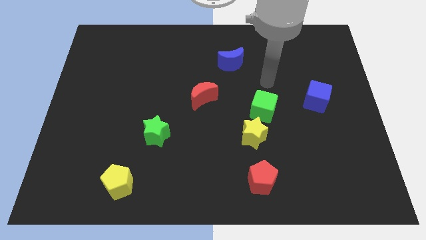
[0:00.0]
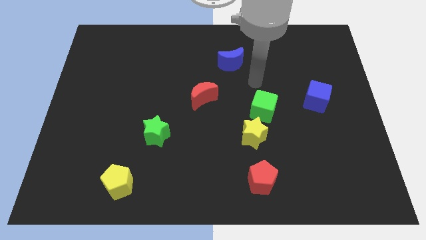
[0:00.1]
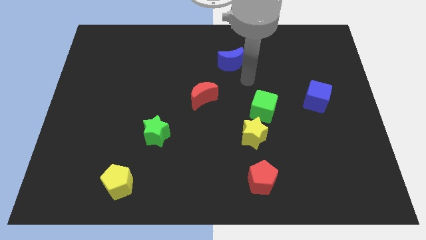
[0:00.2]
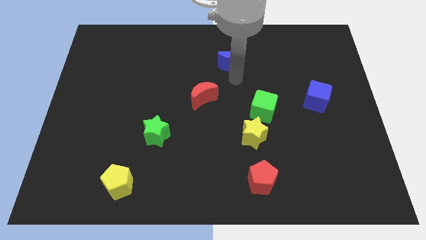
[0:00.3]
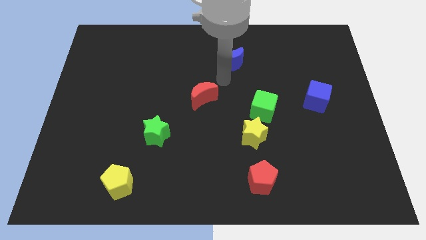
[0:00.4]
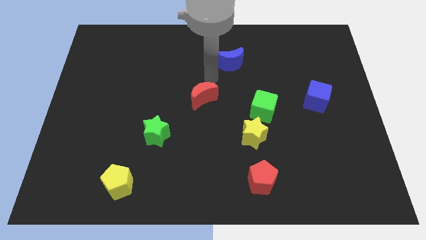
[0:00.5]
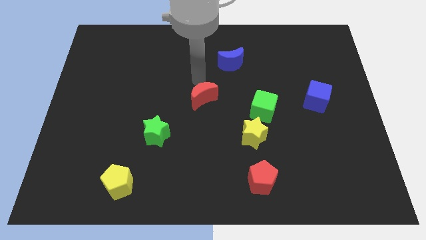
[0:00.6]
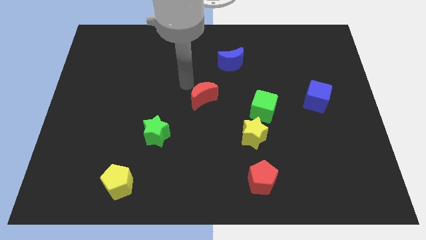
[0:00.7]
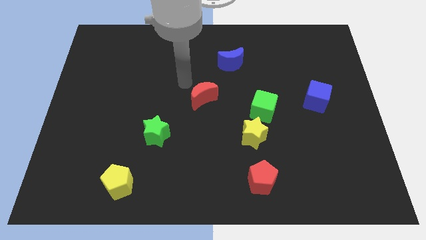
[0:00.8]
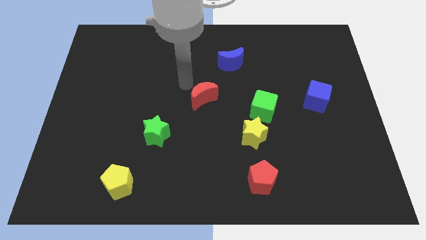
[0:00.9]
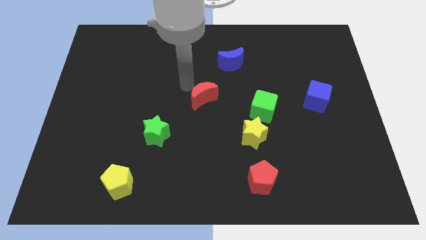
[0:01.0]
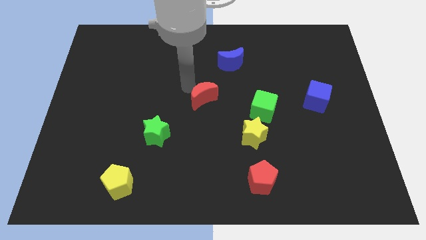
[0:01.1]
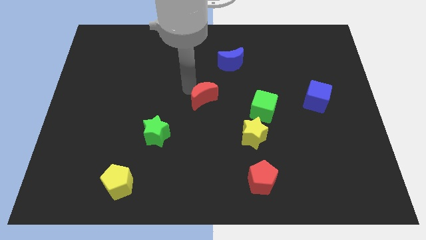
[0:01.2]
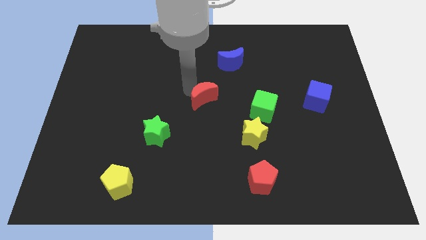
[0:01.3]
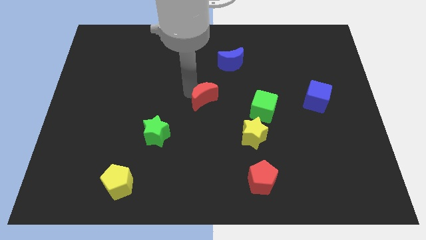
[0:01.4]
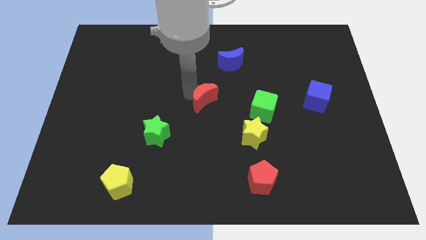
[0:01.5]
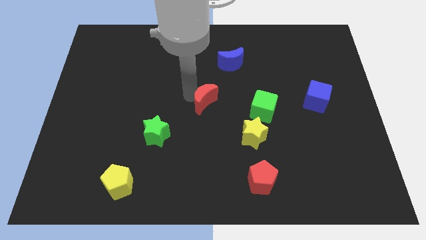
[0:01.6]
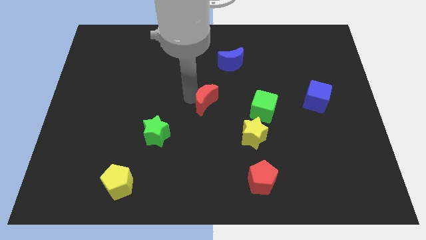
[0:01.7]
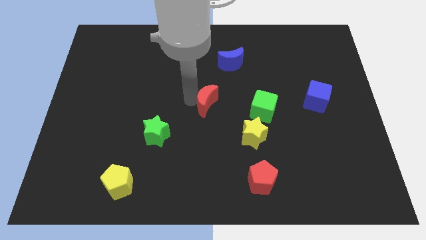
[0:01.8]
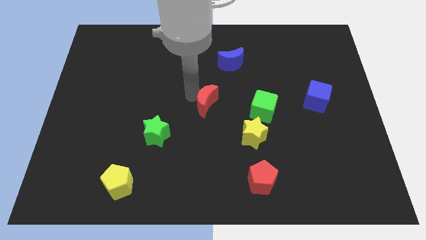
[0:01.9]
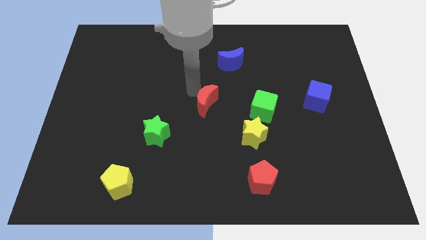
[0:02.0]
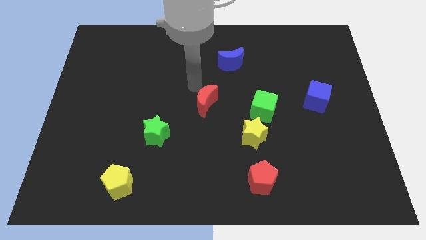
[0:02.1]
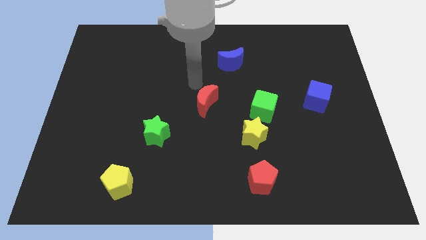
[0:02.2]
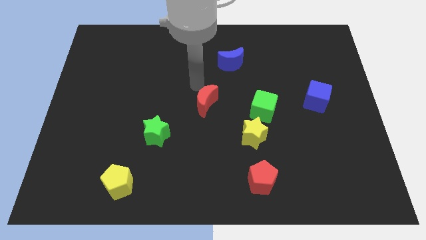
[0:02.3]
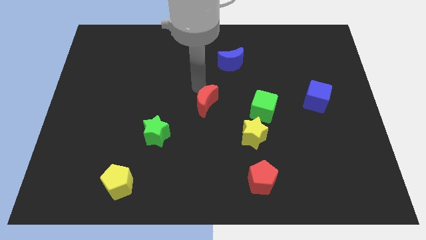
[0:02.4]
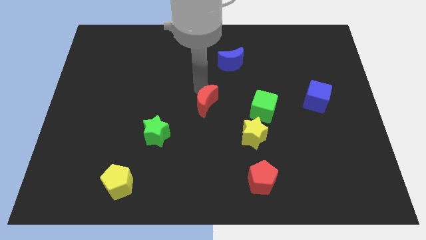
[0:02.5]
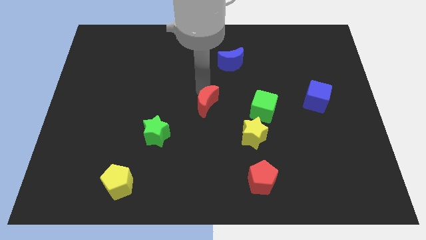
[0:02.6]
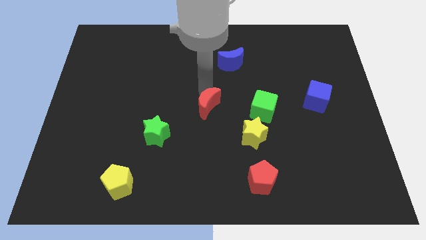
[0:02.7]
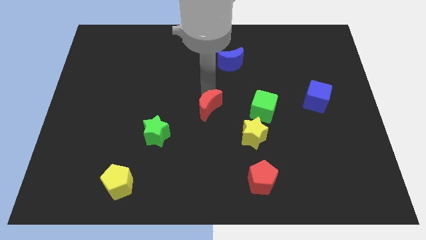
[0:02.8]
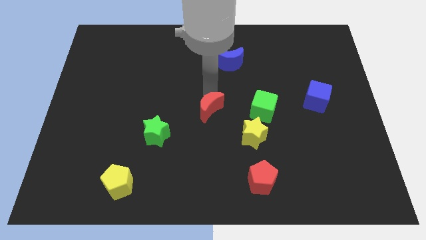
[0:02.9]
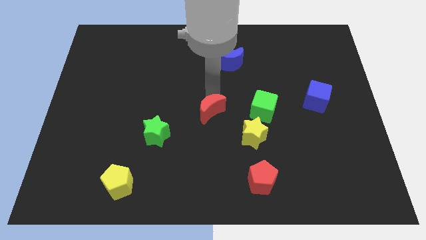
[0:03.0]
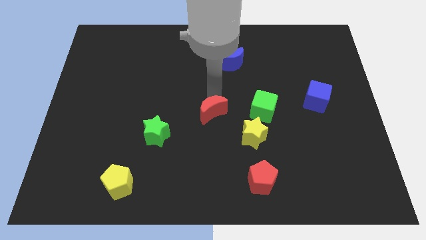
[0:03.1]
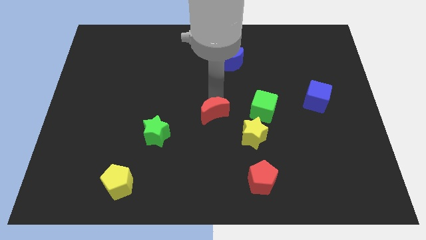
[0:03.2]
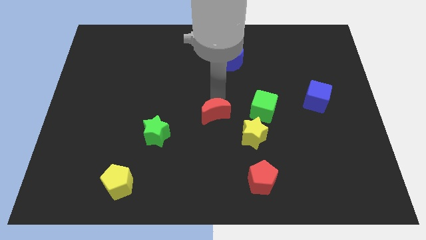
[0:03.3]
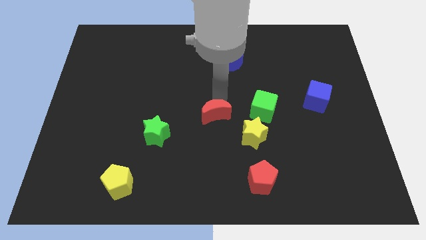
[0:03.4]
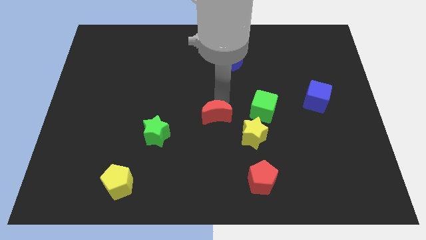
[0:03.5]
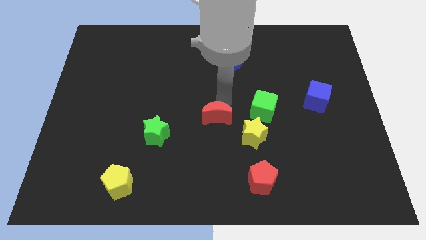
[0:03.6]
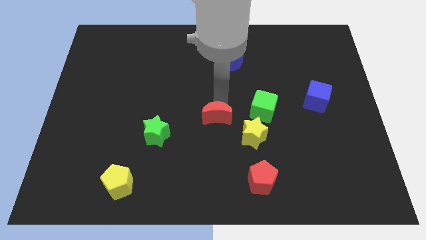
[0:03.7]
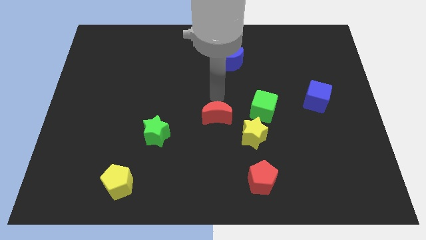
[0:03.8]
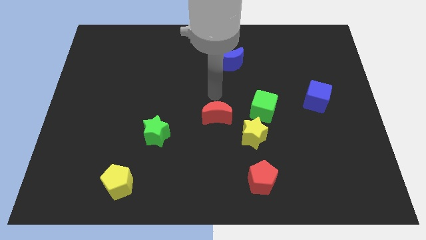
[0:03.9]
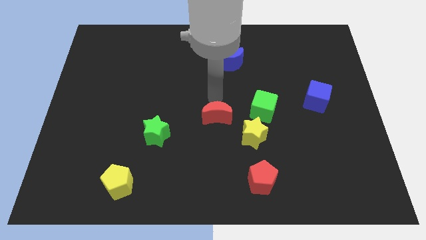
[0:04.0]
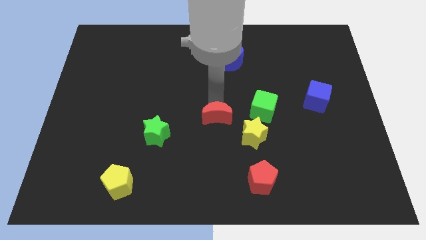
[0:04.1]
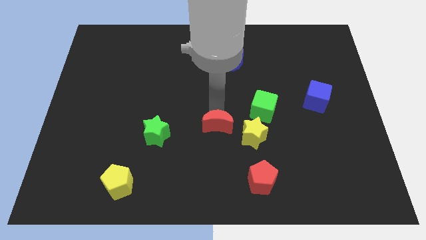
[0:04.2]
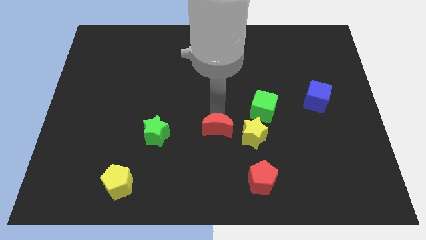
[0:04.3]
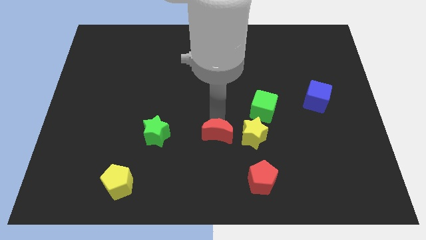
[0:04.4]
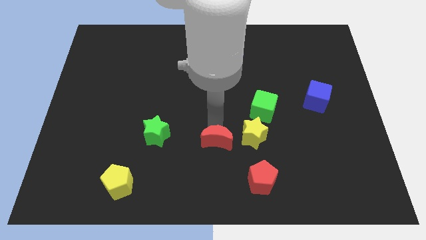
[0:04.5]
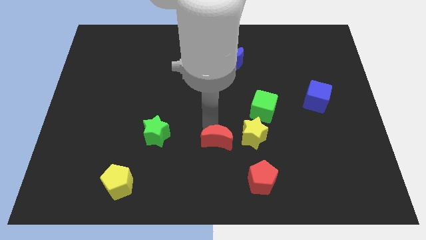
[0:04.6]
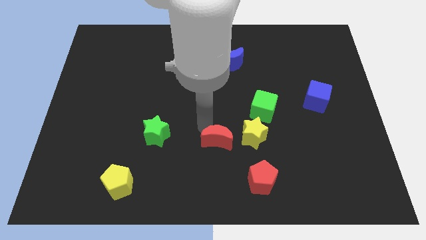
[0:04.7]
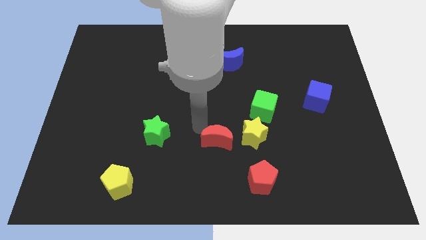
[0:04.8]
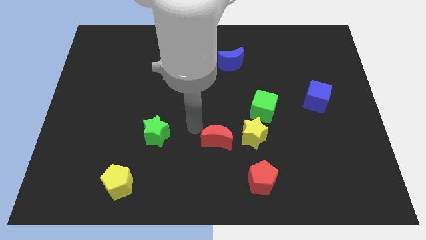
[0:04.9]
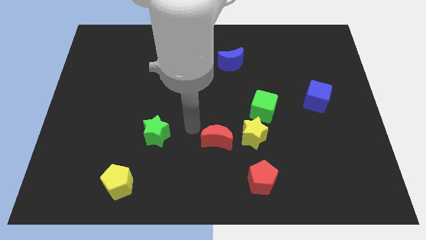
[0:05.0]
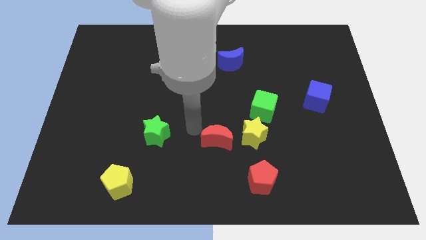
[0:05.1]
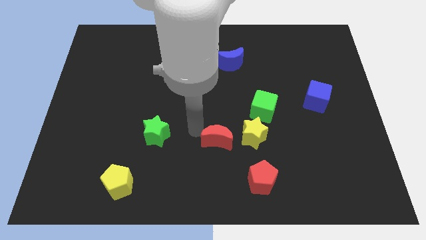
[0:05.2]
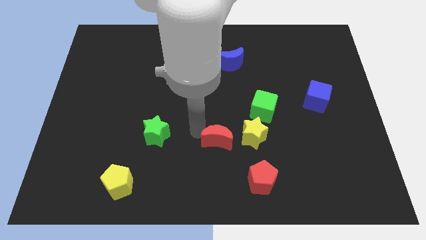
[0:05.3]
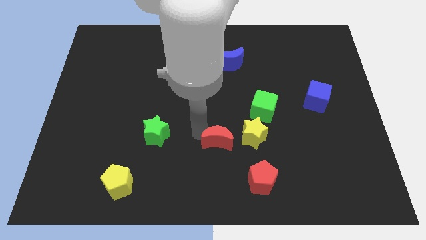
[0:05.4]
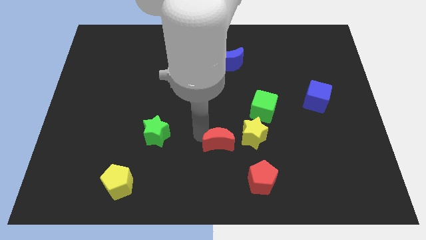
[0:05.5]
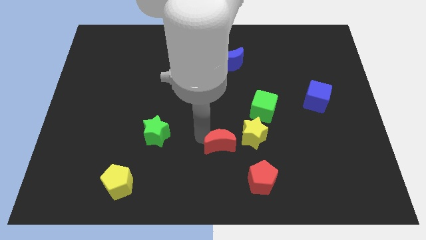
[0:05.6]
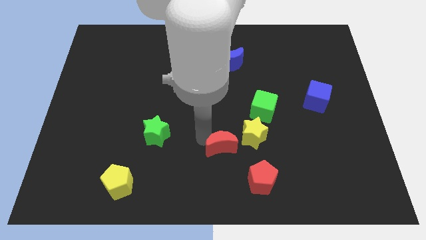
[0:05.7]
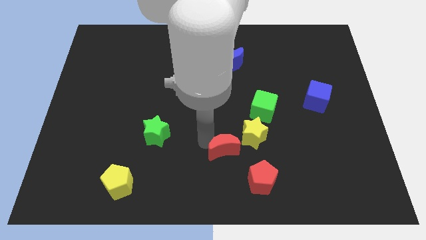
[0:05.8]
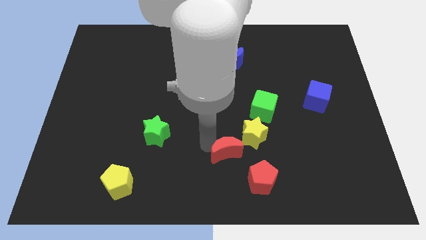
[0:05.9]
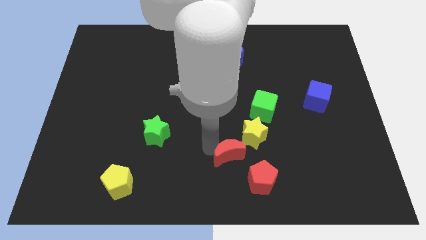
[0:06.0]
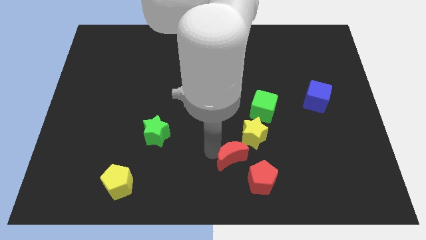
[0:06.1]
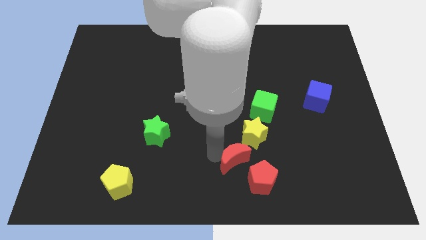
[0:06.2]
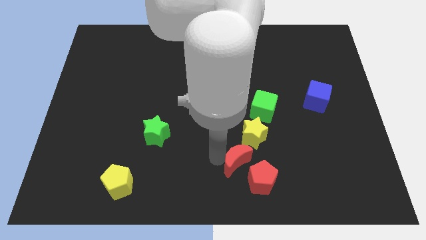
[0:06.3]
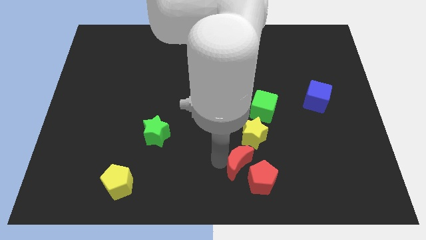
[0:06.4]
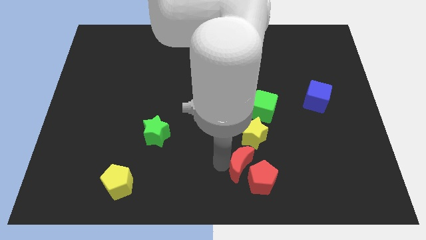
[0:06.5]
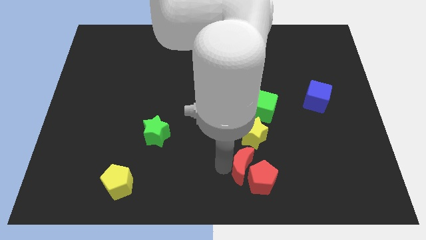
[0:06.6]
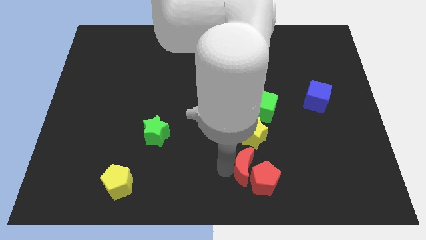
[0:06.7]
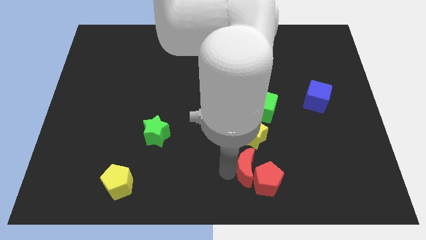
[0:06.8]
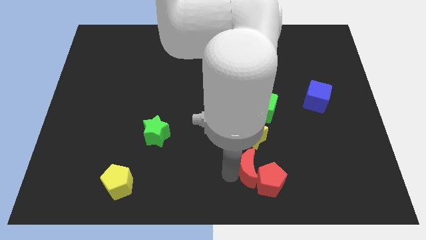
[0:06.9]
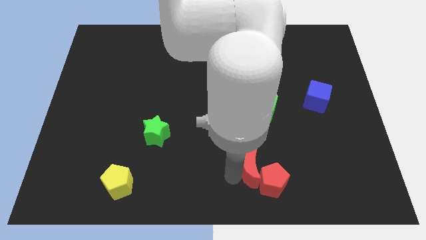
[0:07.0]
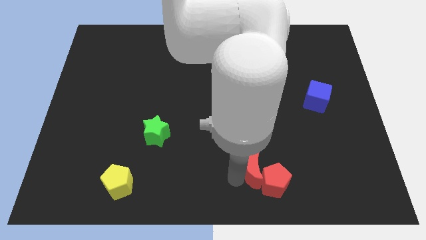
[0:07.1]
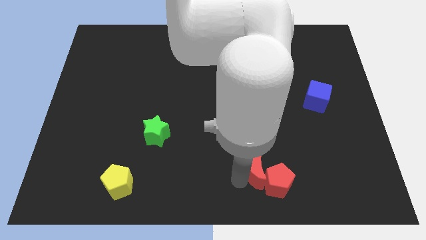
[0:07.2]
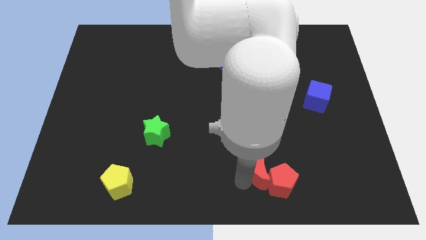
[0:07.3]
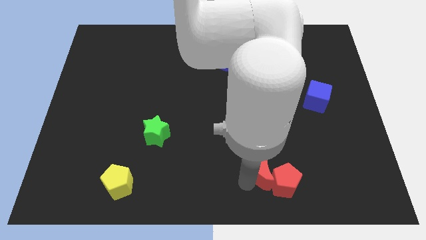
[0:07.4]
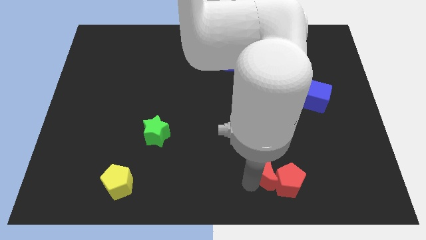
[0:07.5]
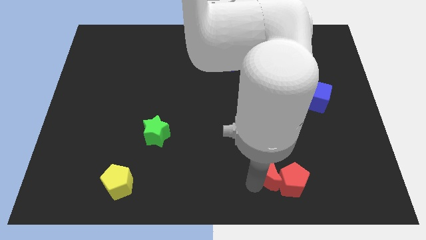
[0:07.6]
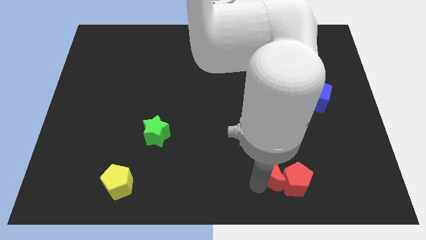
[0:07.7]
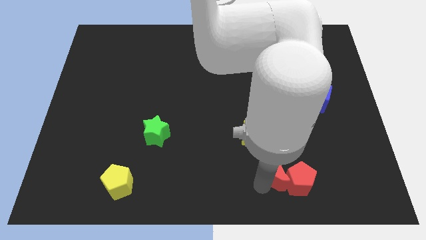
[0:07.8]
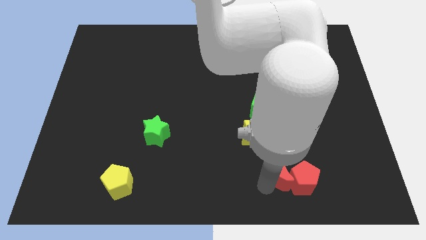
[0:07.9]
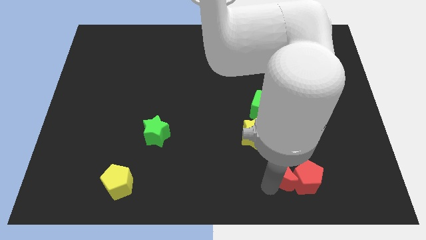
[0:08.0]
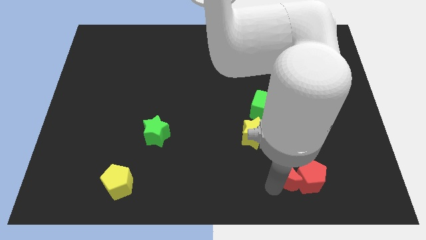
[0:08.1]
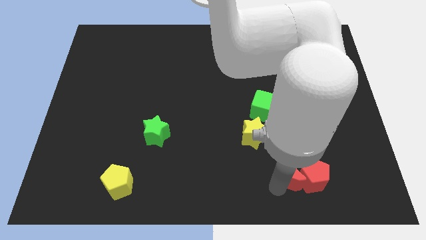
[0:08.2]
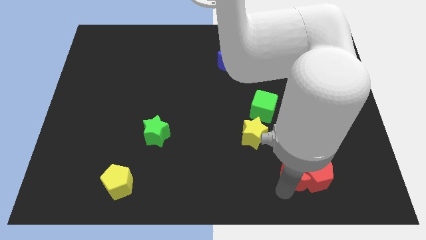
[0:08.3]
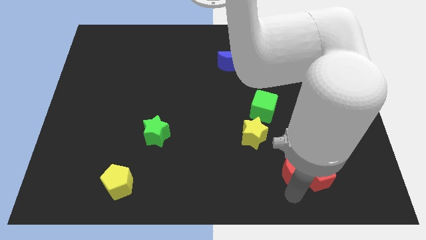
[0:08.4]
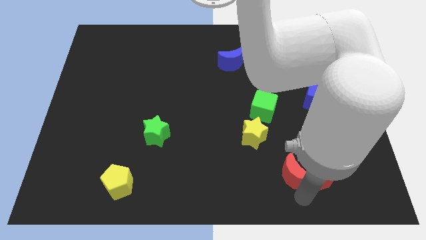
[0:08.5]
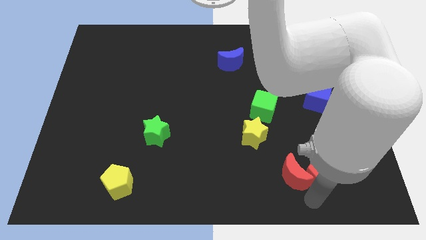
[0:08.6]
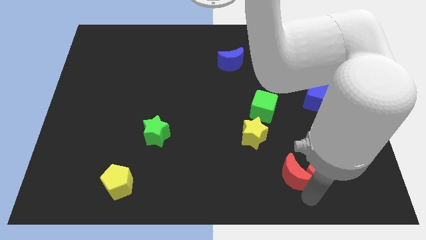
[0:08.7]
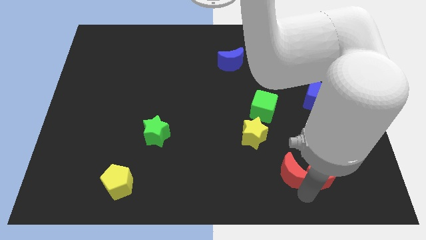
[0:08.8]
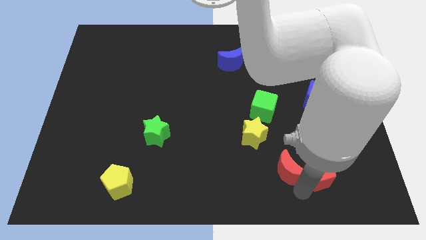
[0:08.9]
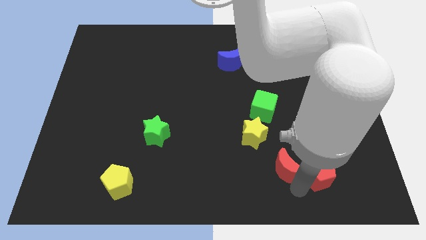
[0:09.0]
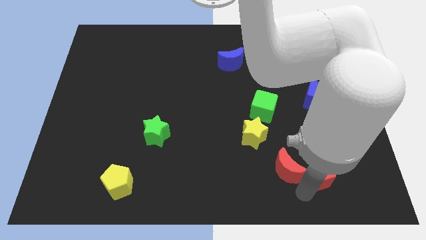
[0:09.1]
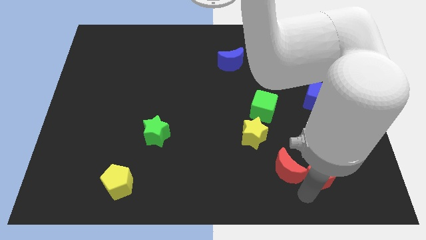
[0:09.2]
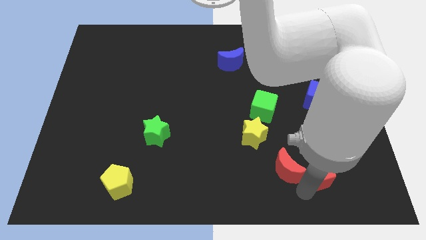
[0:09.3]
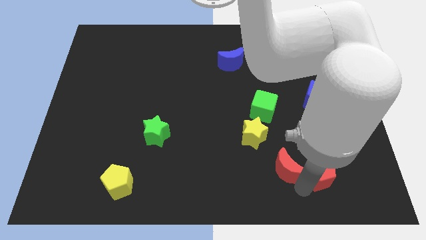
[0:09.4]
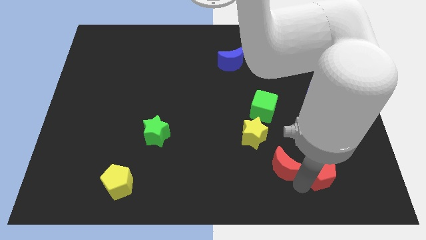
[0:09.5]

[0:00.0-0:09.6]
slide the red moon below the green cube
